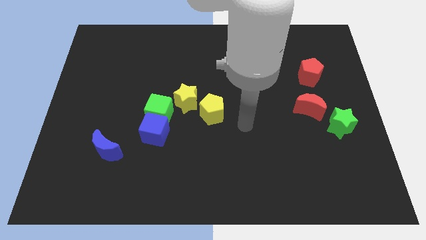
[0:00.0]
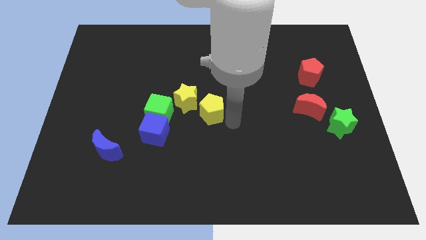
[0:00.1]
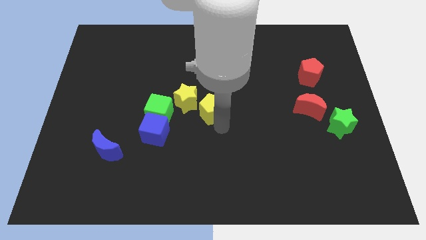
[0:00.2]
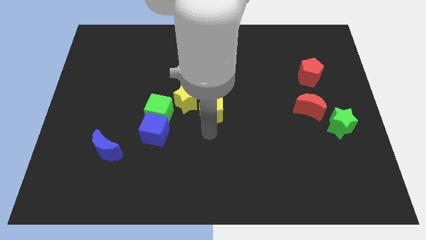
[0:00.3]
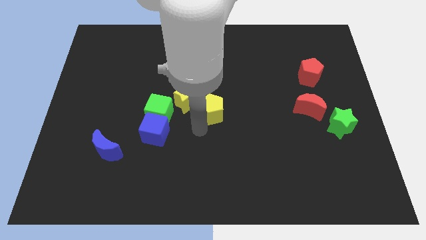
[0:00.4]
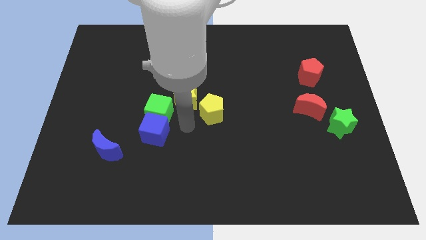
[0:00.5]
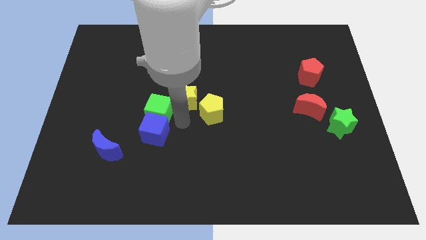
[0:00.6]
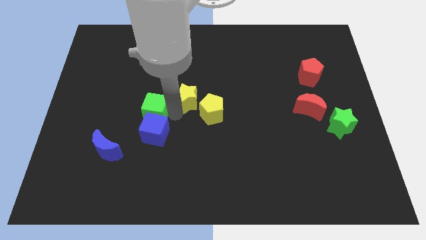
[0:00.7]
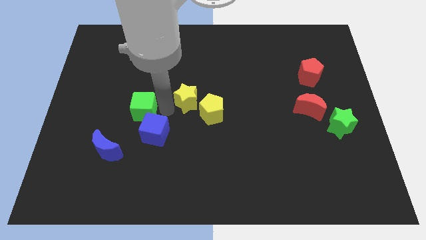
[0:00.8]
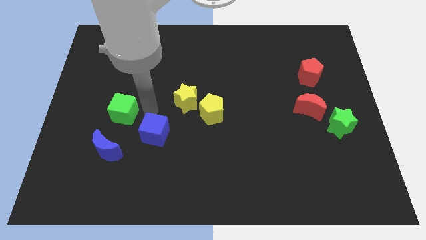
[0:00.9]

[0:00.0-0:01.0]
move the blue cube away from the green cube

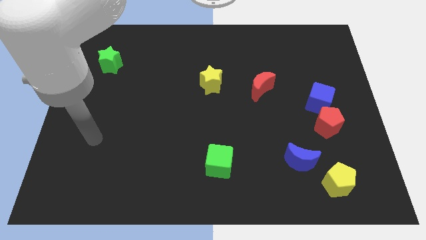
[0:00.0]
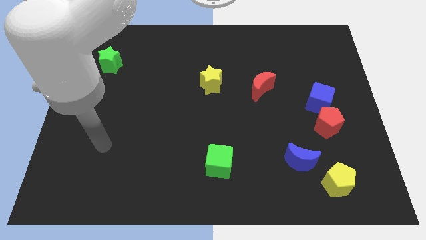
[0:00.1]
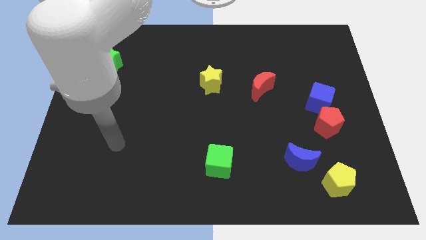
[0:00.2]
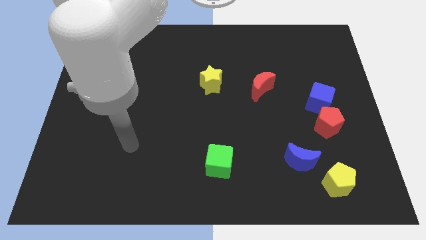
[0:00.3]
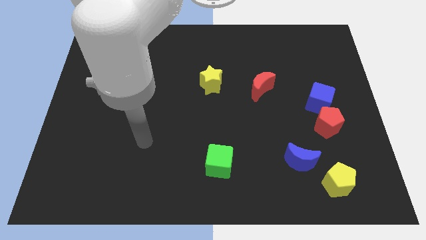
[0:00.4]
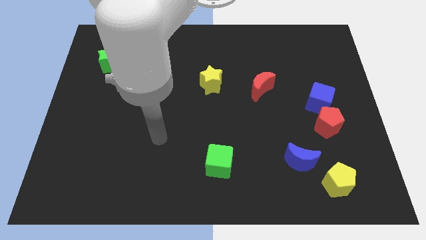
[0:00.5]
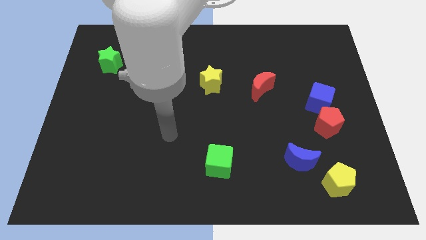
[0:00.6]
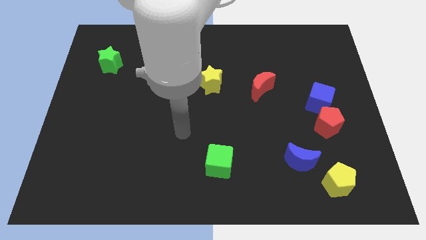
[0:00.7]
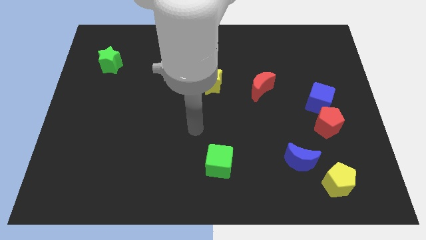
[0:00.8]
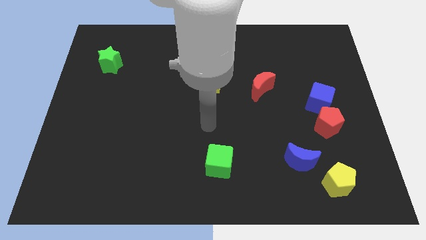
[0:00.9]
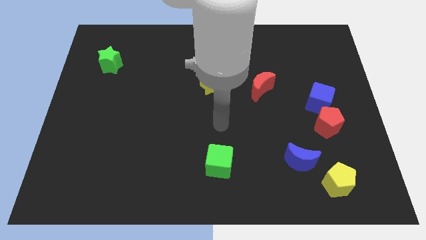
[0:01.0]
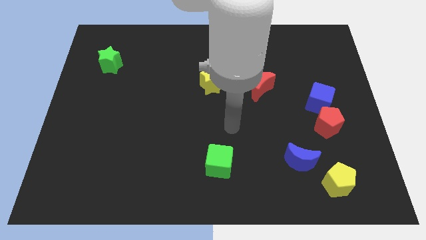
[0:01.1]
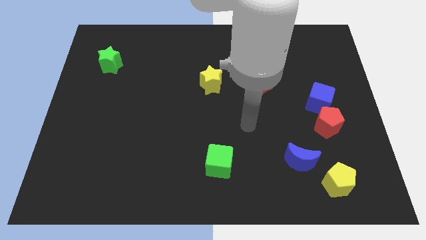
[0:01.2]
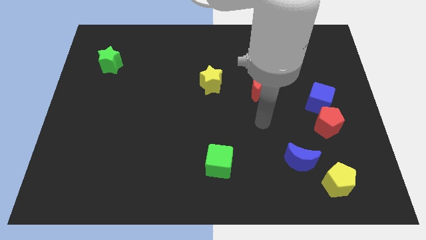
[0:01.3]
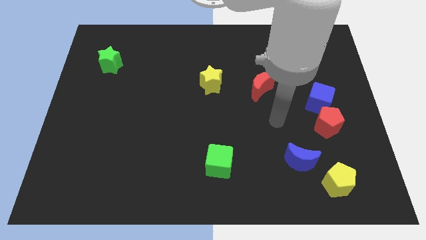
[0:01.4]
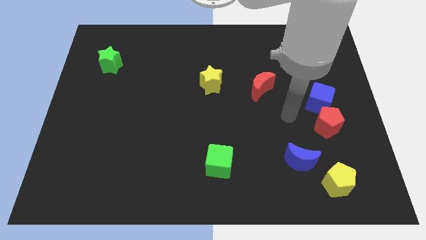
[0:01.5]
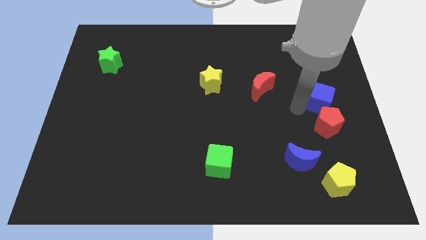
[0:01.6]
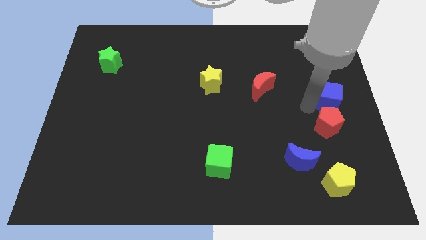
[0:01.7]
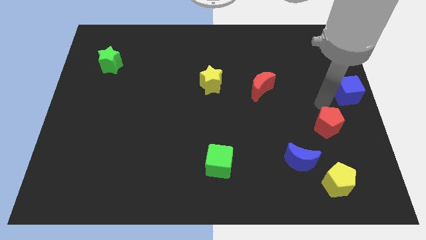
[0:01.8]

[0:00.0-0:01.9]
move the red pentagon away from the blue cube

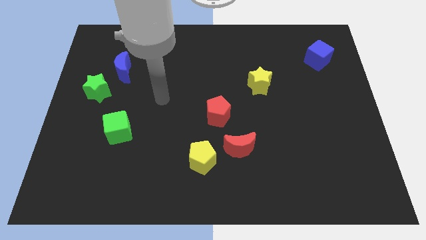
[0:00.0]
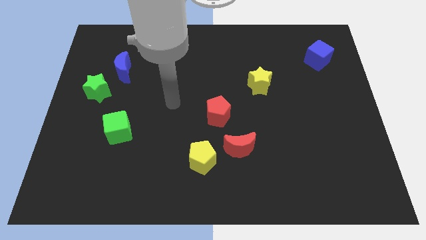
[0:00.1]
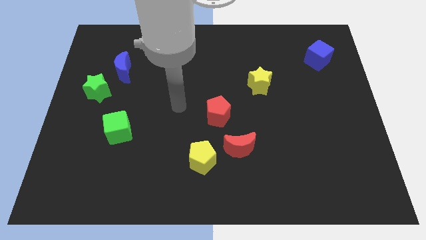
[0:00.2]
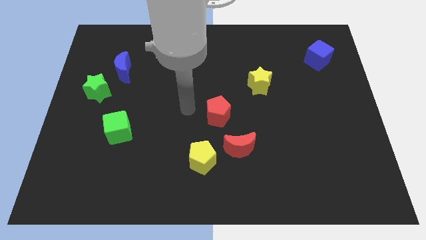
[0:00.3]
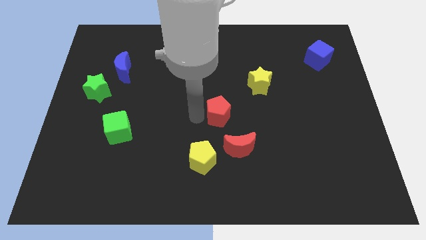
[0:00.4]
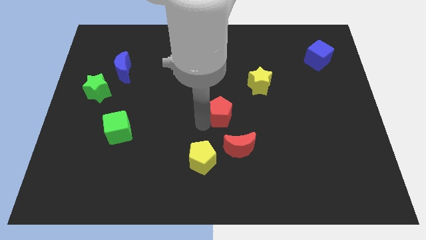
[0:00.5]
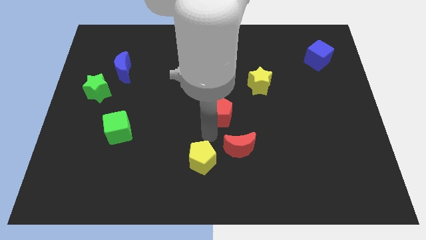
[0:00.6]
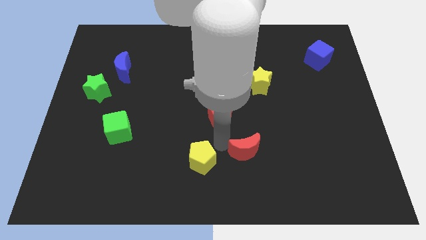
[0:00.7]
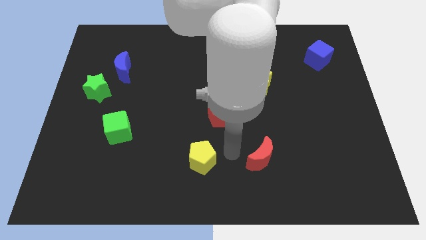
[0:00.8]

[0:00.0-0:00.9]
separate the yellow pentagon from the red moon

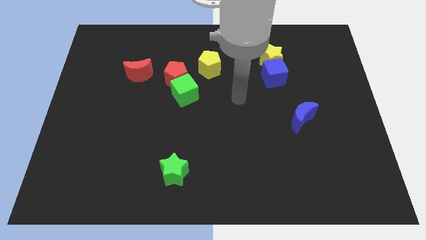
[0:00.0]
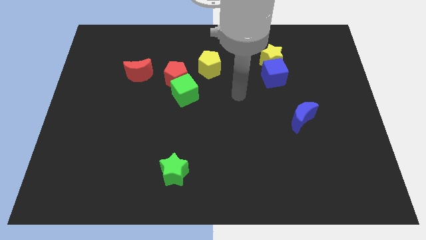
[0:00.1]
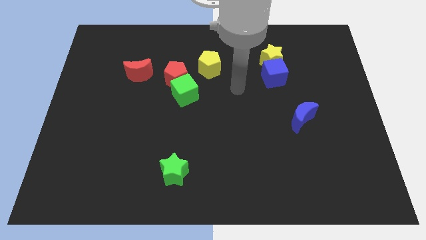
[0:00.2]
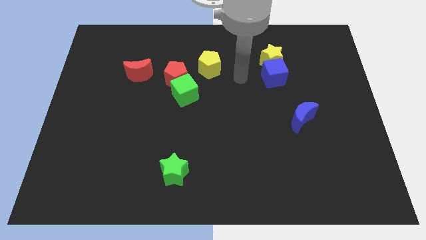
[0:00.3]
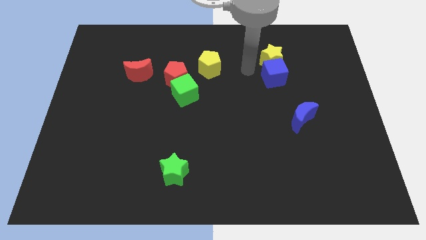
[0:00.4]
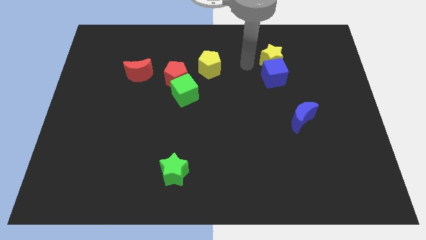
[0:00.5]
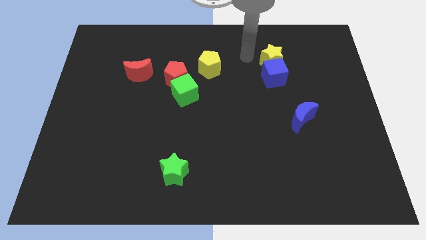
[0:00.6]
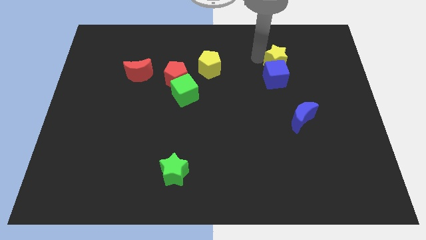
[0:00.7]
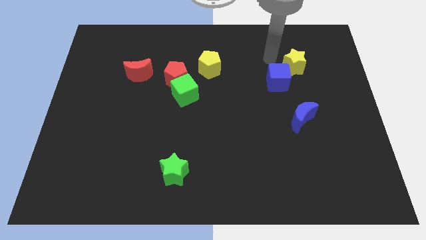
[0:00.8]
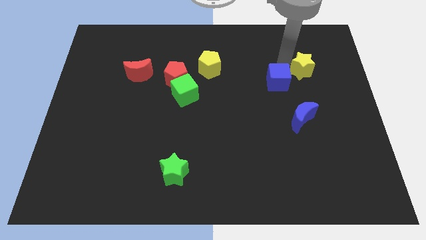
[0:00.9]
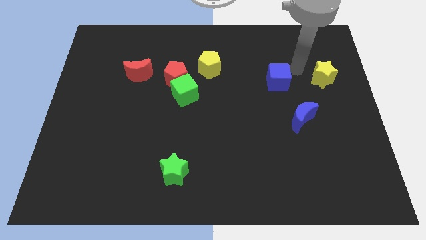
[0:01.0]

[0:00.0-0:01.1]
separate the blue cube from the yellow star

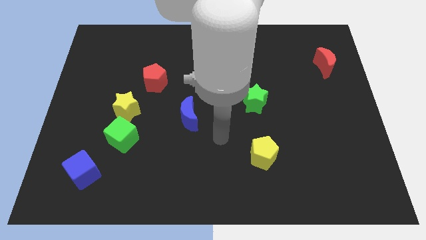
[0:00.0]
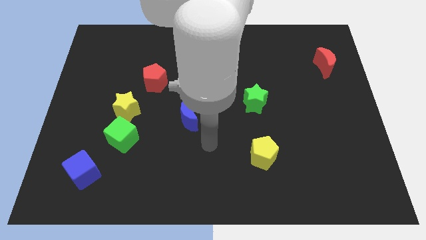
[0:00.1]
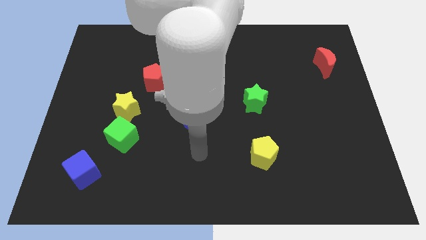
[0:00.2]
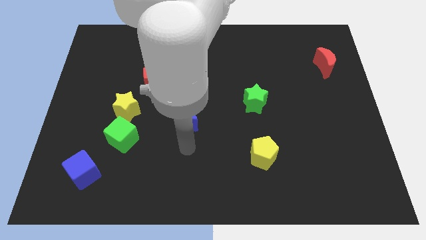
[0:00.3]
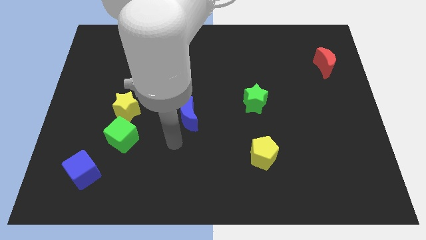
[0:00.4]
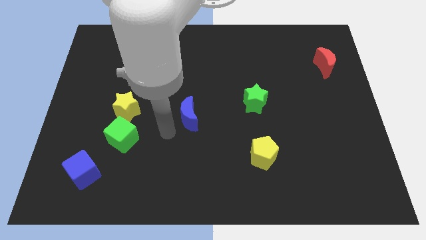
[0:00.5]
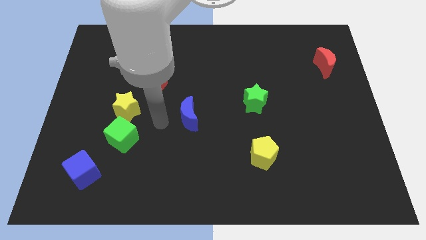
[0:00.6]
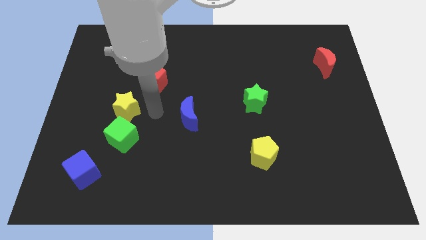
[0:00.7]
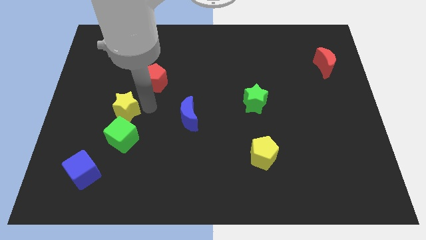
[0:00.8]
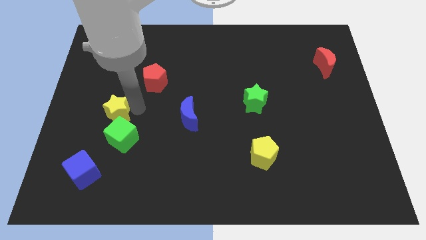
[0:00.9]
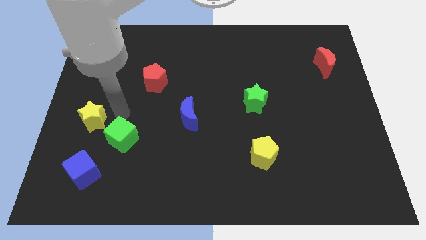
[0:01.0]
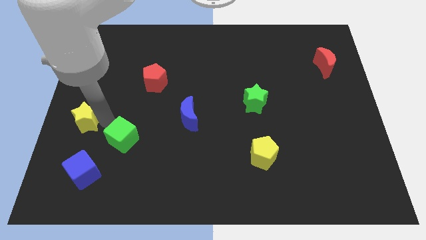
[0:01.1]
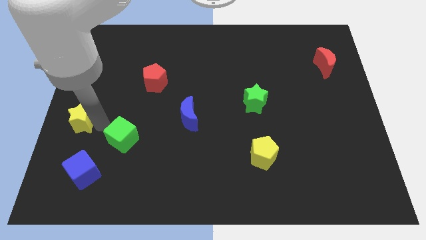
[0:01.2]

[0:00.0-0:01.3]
separate the green cube from the yellow star

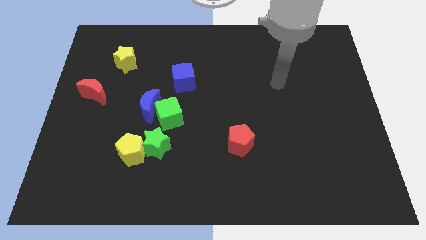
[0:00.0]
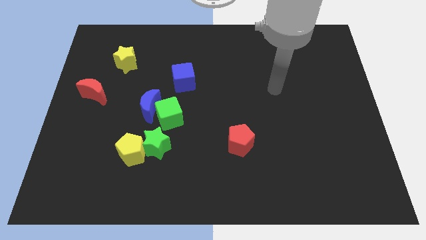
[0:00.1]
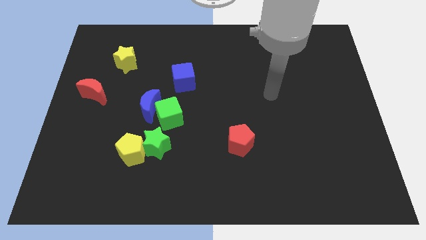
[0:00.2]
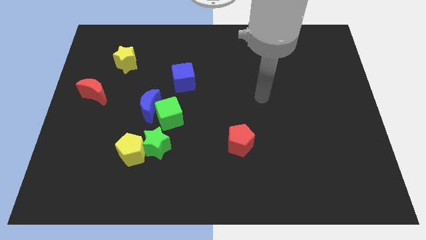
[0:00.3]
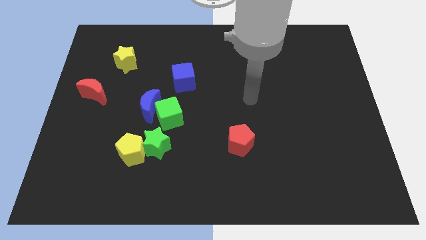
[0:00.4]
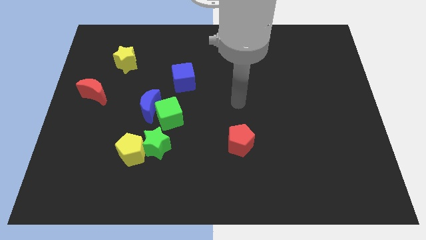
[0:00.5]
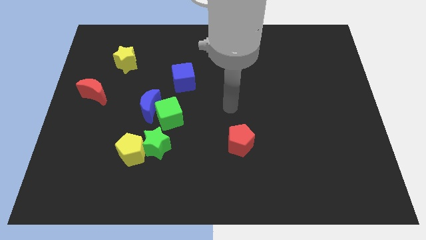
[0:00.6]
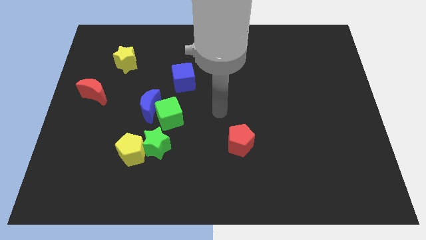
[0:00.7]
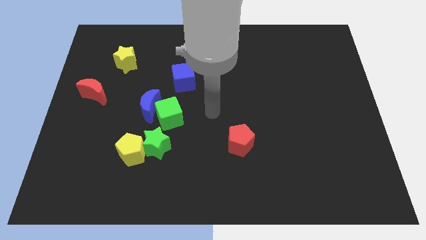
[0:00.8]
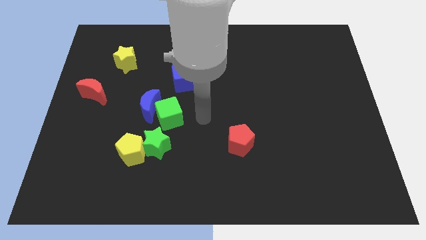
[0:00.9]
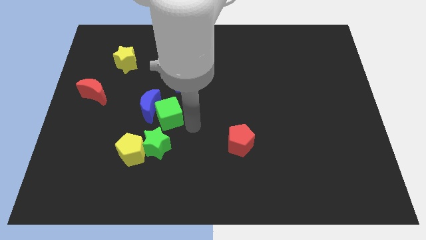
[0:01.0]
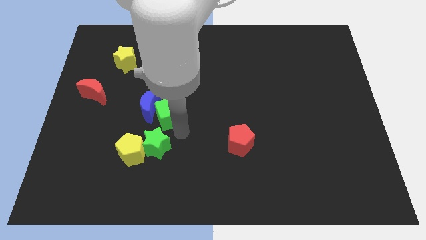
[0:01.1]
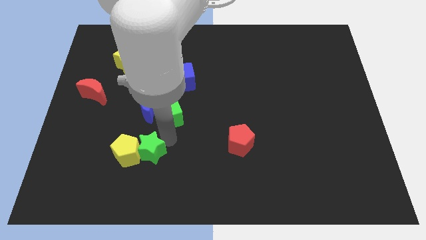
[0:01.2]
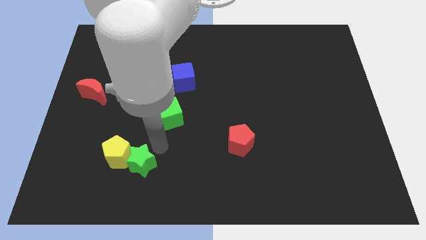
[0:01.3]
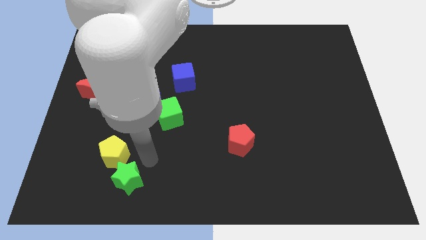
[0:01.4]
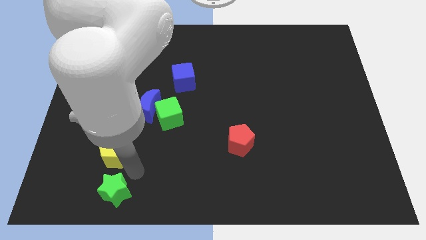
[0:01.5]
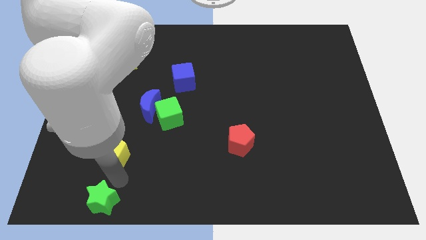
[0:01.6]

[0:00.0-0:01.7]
pull the yellow pentagon apart from the green star

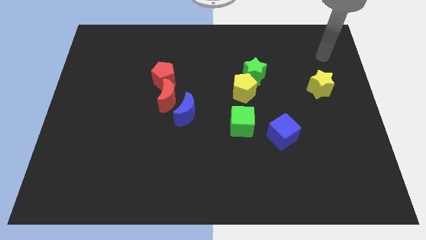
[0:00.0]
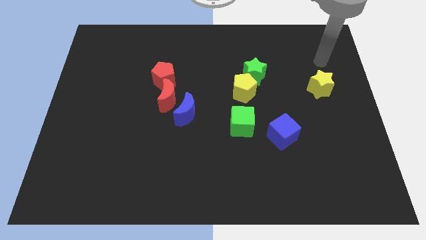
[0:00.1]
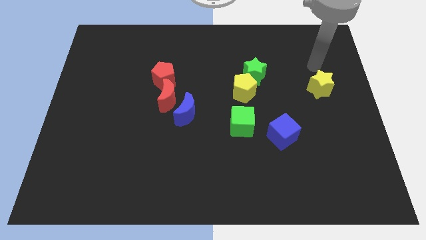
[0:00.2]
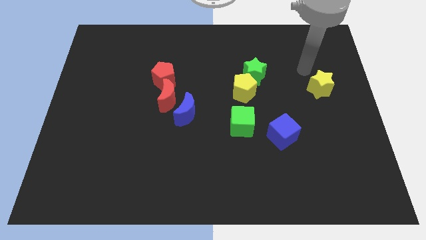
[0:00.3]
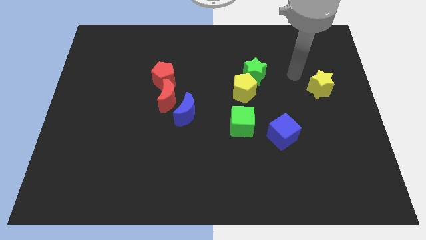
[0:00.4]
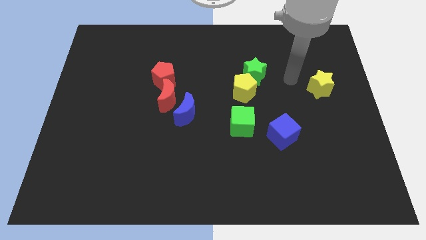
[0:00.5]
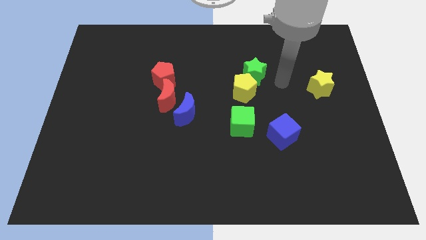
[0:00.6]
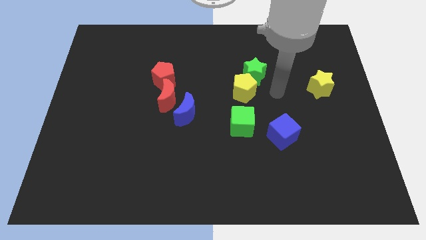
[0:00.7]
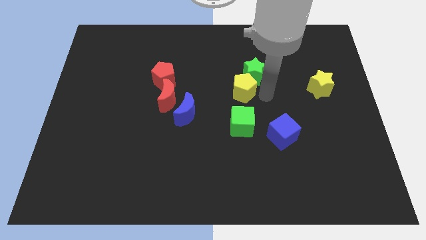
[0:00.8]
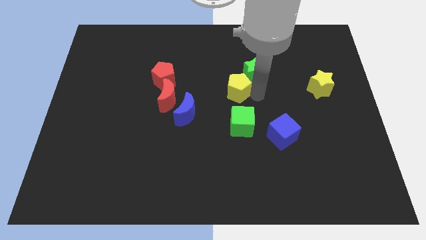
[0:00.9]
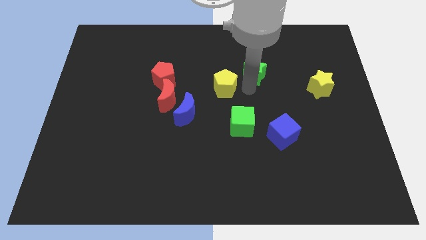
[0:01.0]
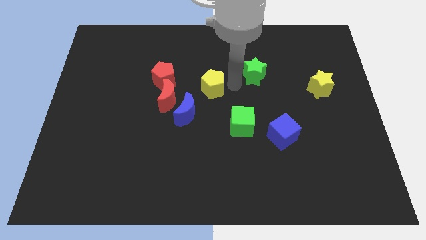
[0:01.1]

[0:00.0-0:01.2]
pull the green star apart from the yellow pentagon

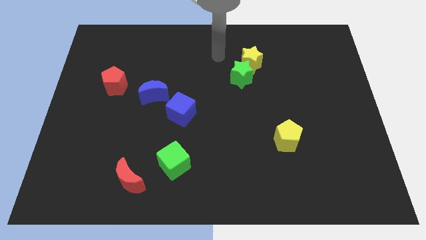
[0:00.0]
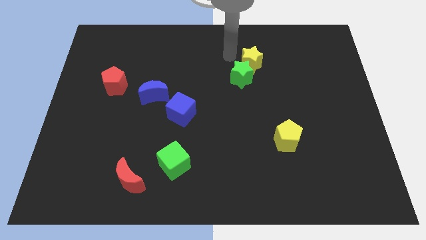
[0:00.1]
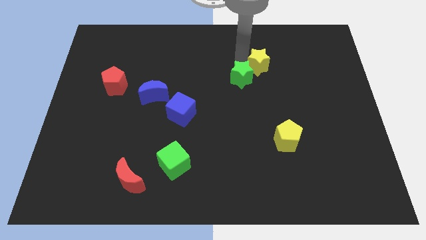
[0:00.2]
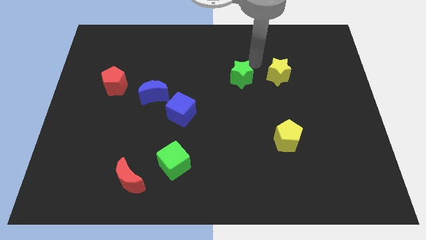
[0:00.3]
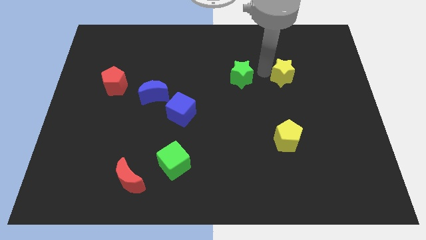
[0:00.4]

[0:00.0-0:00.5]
move the green star away from the yellow star
